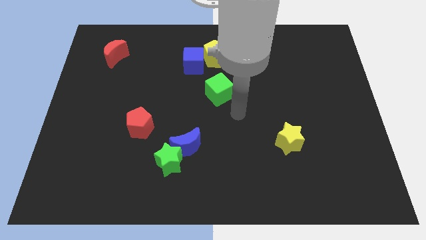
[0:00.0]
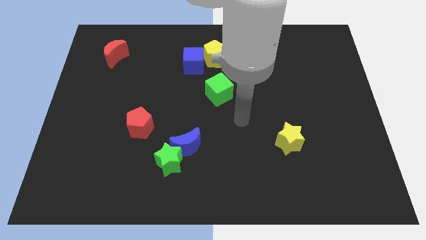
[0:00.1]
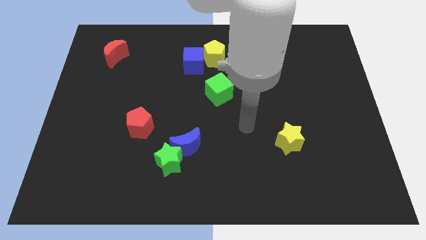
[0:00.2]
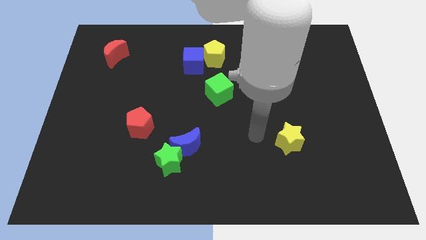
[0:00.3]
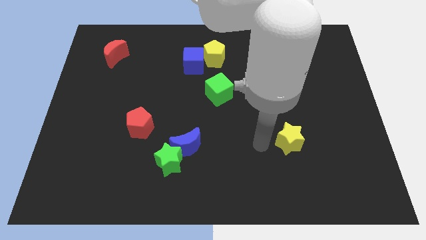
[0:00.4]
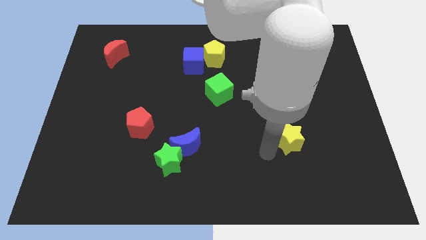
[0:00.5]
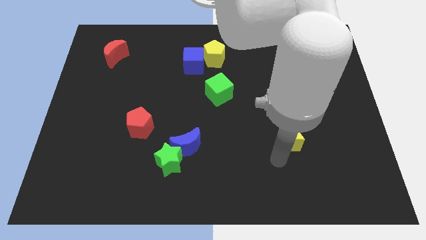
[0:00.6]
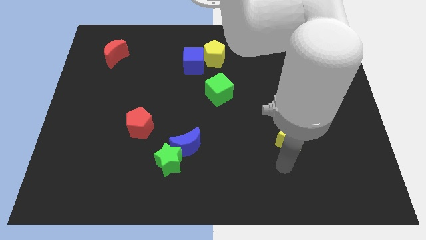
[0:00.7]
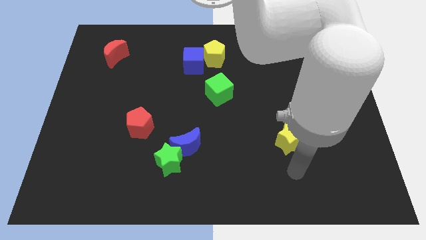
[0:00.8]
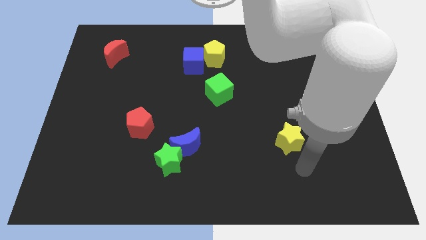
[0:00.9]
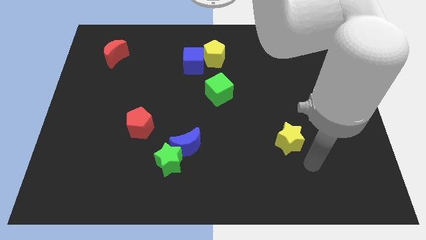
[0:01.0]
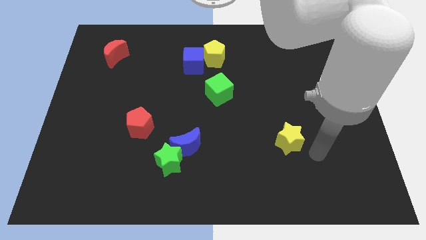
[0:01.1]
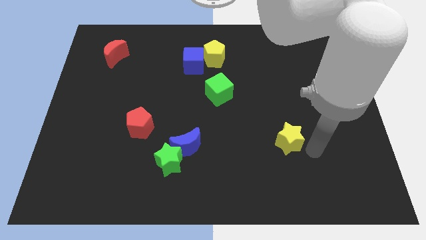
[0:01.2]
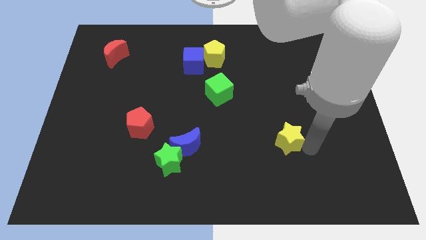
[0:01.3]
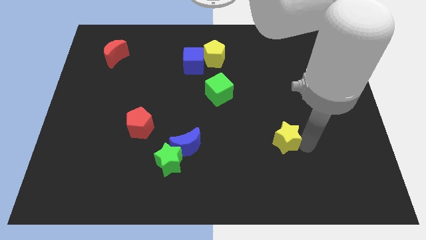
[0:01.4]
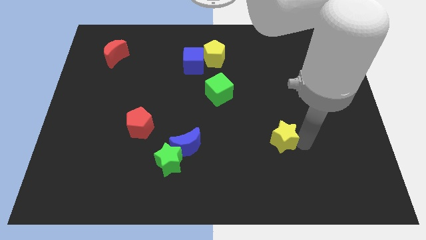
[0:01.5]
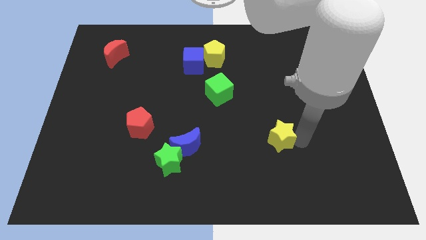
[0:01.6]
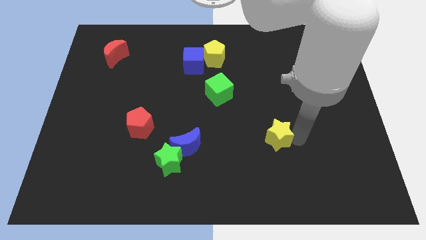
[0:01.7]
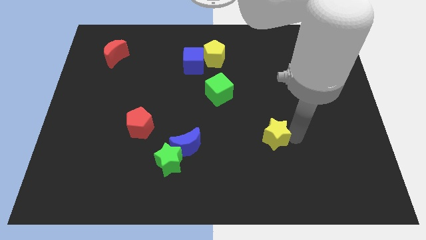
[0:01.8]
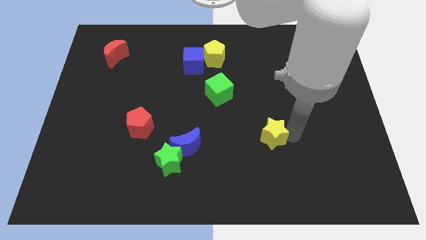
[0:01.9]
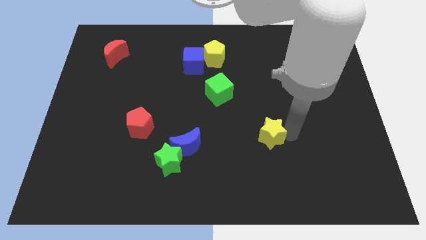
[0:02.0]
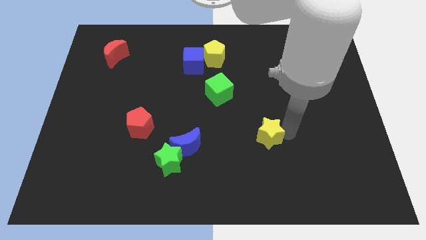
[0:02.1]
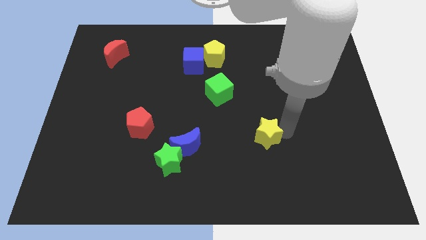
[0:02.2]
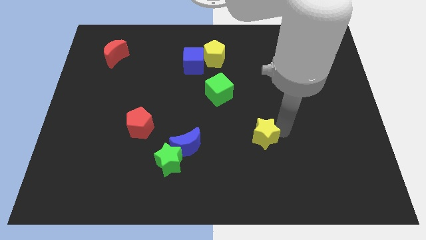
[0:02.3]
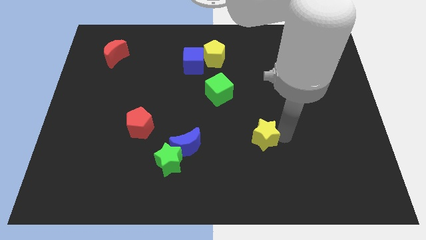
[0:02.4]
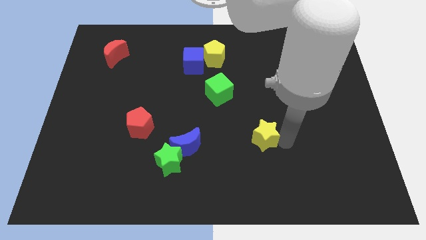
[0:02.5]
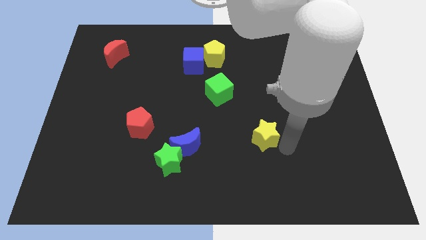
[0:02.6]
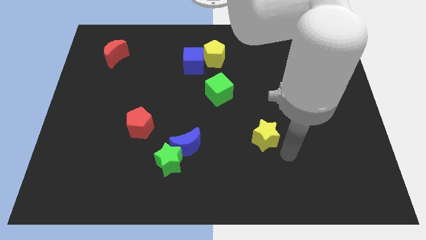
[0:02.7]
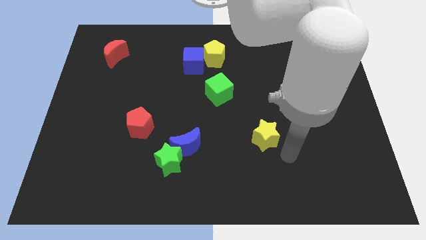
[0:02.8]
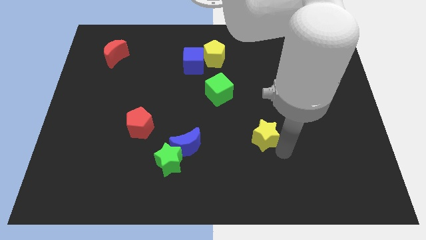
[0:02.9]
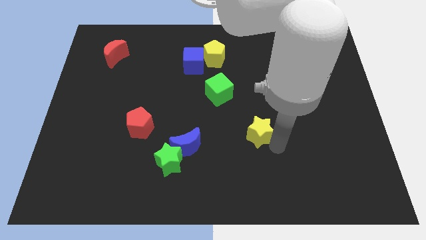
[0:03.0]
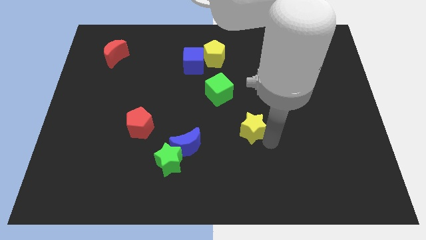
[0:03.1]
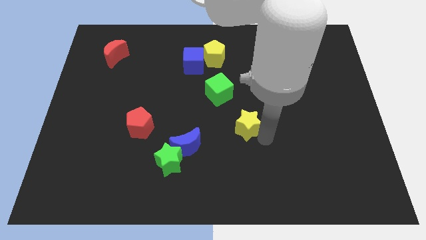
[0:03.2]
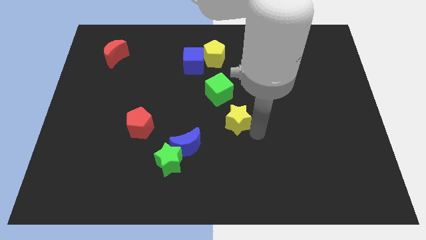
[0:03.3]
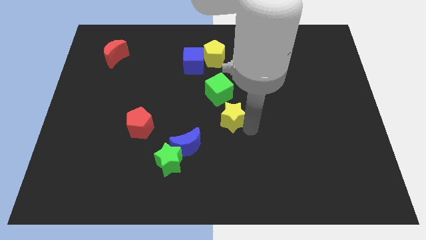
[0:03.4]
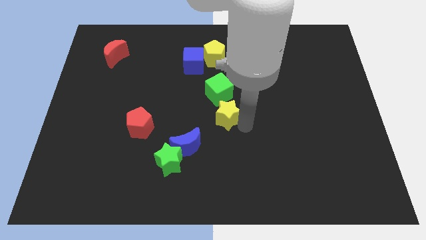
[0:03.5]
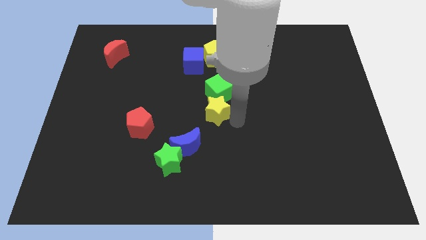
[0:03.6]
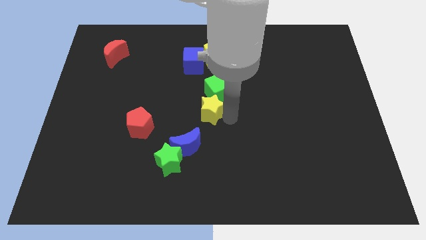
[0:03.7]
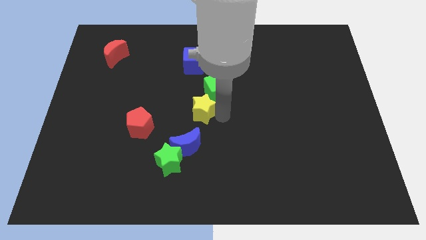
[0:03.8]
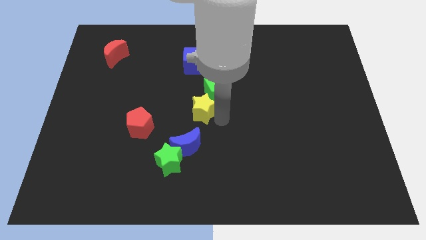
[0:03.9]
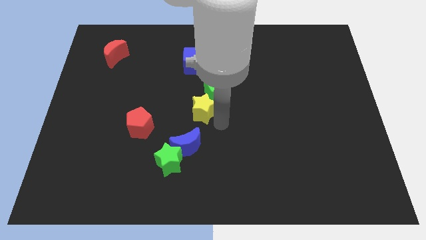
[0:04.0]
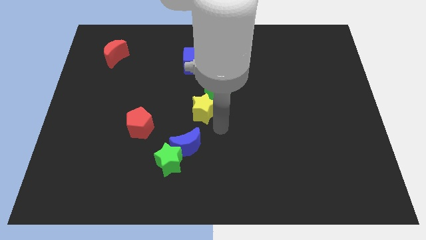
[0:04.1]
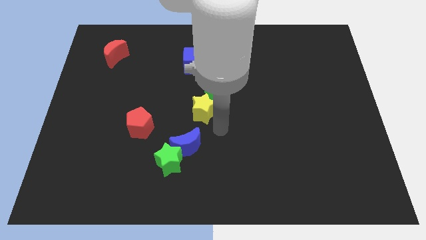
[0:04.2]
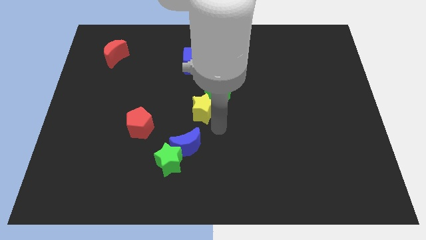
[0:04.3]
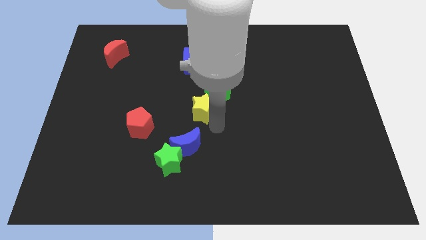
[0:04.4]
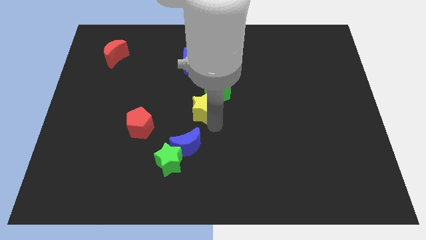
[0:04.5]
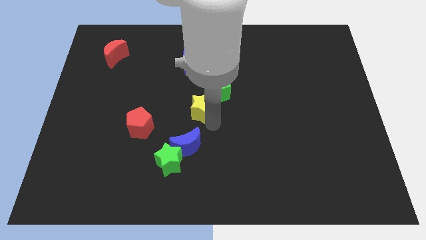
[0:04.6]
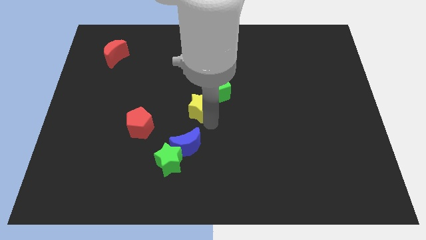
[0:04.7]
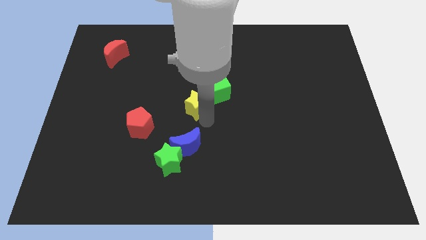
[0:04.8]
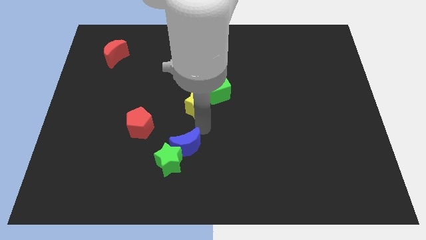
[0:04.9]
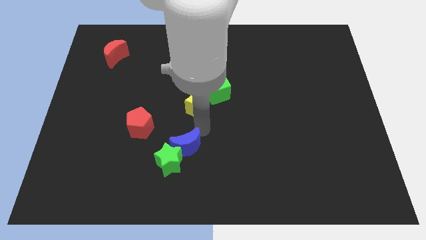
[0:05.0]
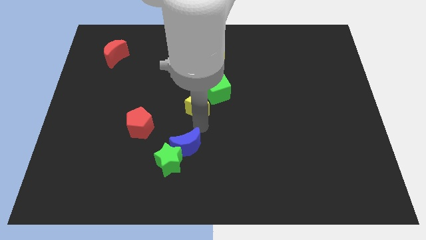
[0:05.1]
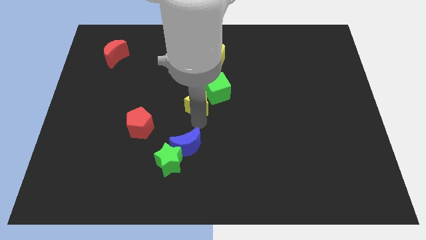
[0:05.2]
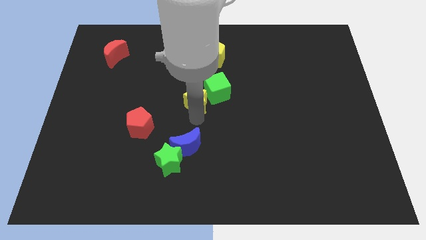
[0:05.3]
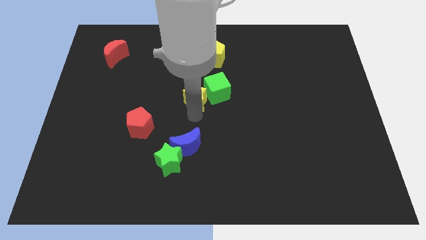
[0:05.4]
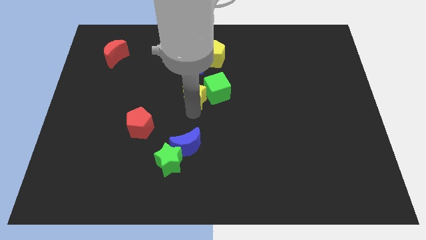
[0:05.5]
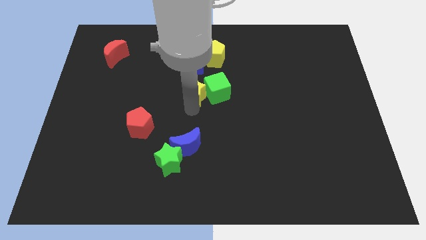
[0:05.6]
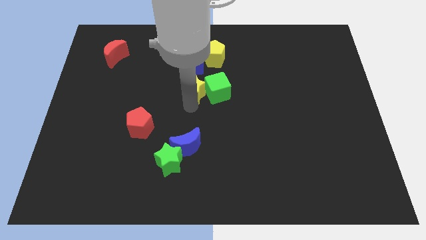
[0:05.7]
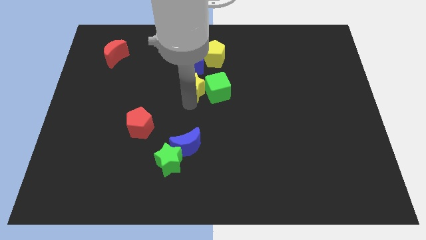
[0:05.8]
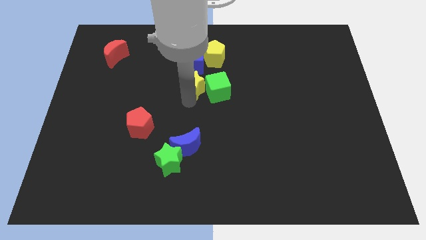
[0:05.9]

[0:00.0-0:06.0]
put the yellow star to the bottom left of the yellow pentagon

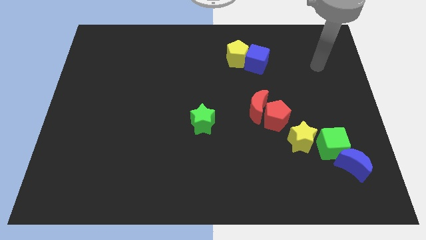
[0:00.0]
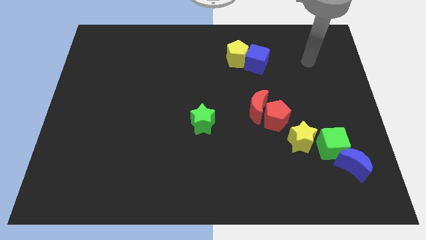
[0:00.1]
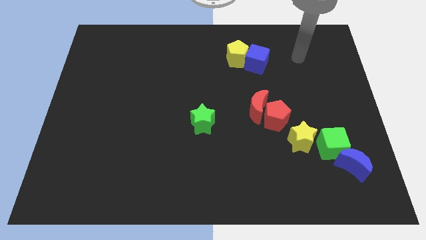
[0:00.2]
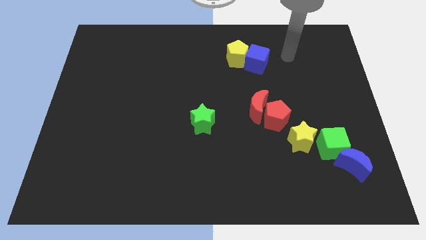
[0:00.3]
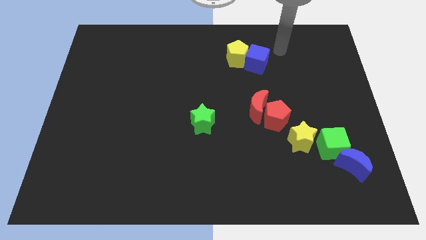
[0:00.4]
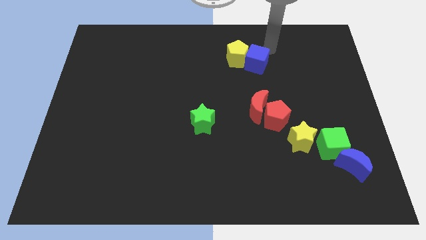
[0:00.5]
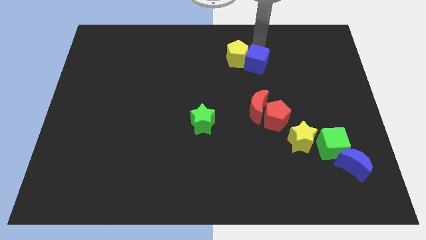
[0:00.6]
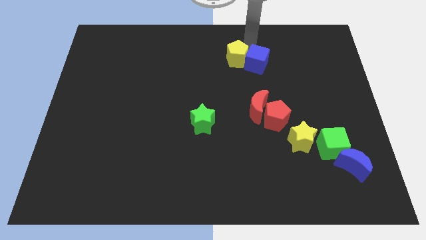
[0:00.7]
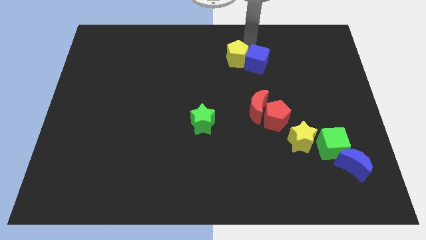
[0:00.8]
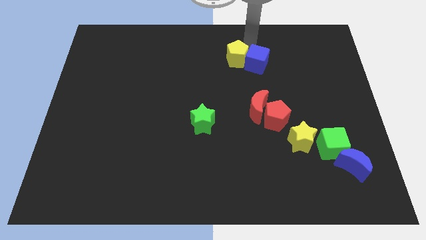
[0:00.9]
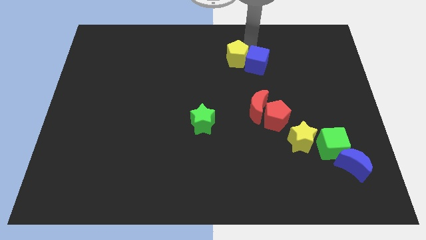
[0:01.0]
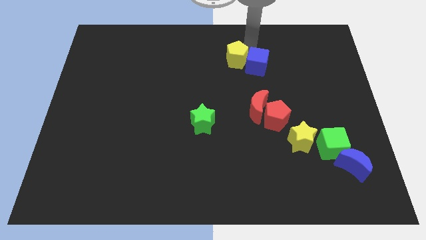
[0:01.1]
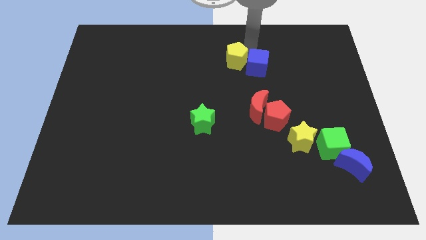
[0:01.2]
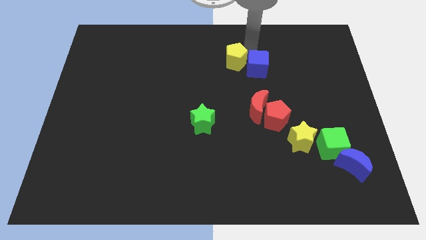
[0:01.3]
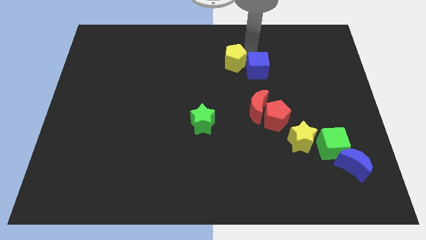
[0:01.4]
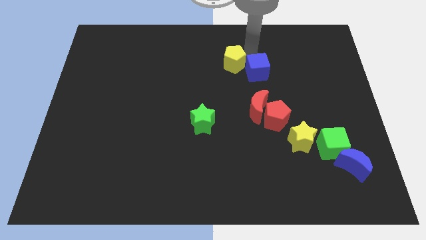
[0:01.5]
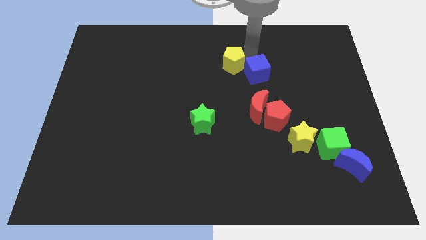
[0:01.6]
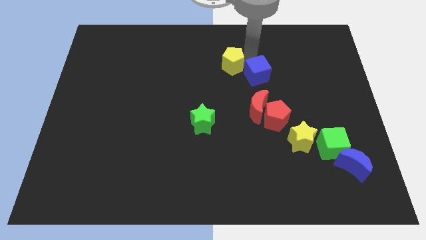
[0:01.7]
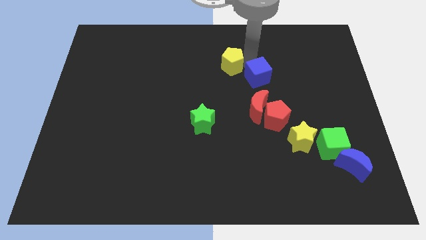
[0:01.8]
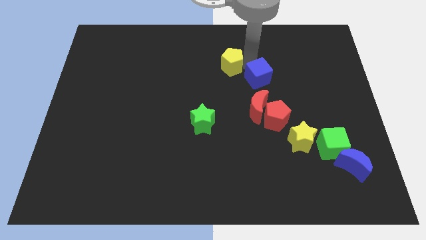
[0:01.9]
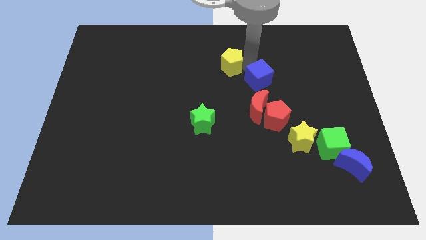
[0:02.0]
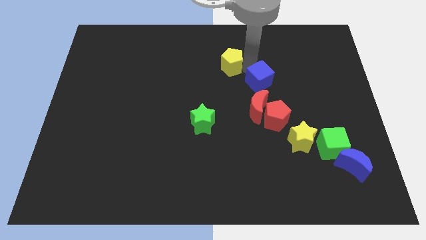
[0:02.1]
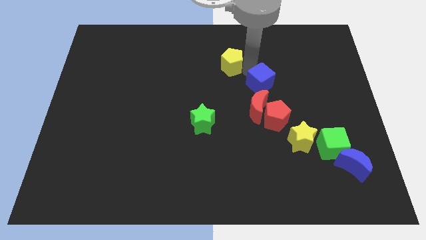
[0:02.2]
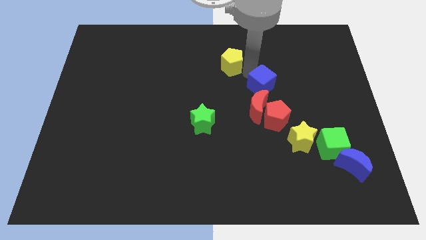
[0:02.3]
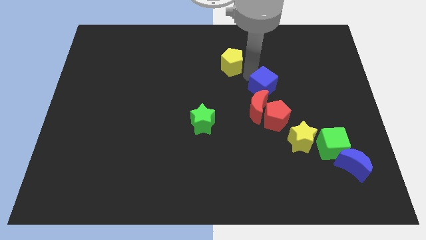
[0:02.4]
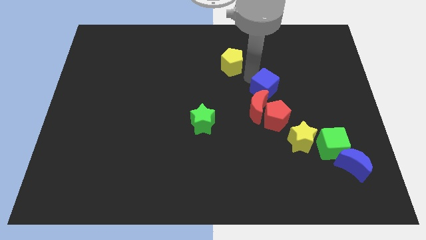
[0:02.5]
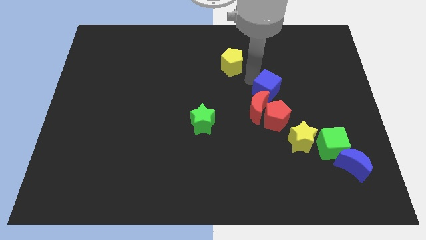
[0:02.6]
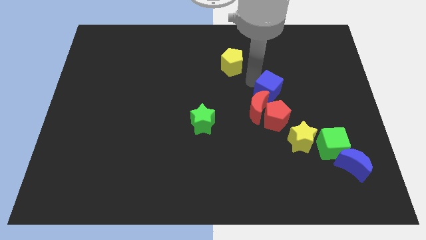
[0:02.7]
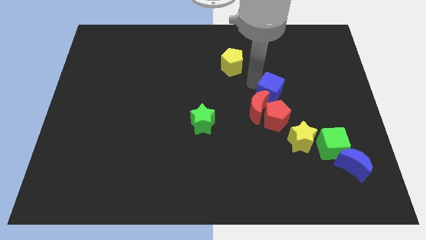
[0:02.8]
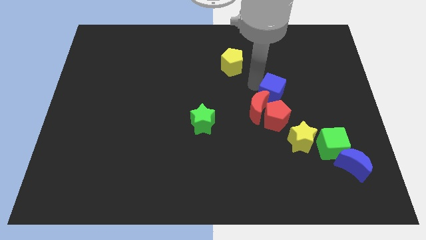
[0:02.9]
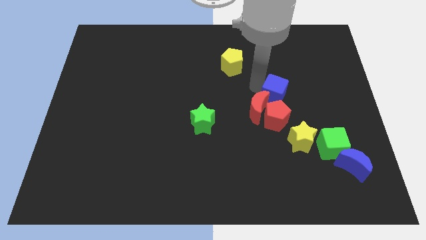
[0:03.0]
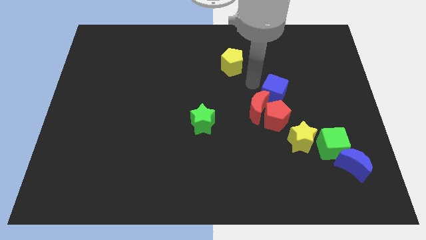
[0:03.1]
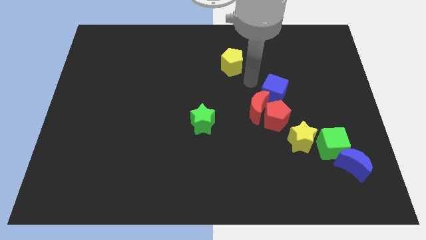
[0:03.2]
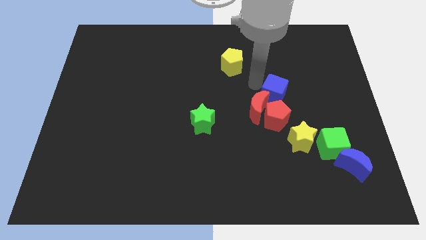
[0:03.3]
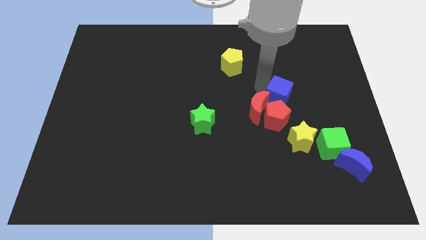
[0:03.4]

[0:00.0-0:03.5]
move the blue cube to the top side of the yellow star
